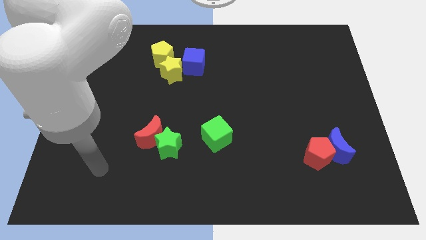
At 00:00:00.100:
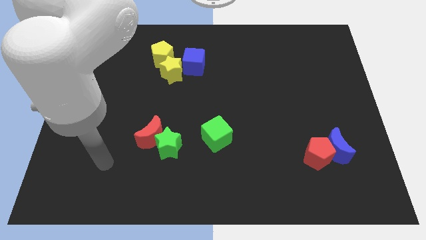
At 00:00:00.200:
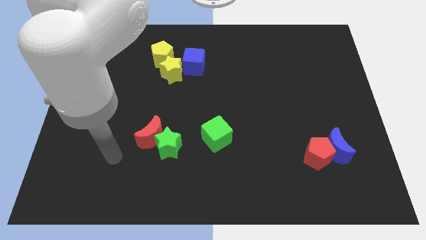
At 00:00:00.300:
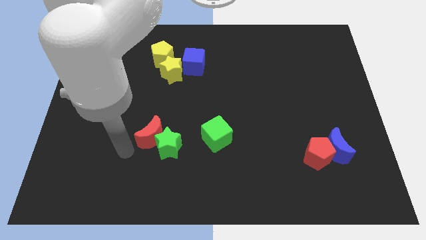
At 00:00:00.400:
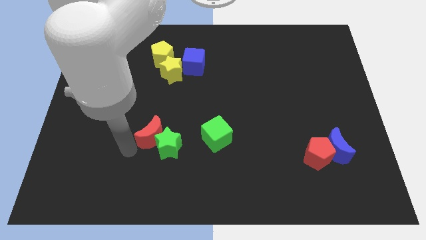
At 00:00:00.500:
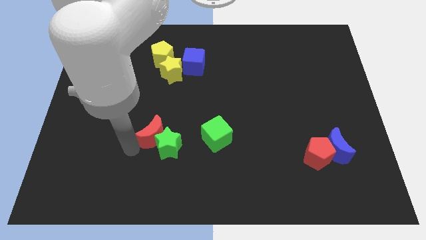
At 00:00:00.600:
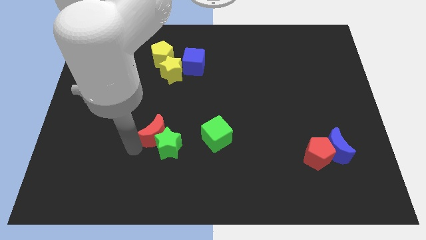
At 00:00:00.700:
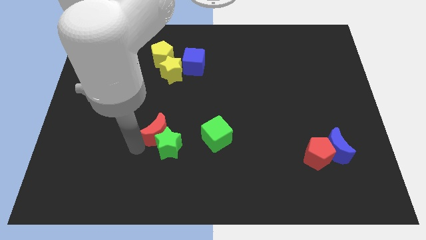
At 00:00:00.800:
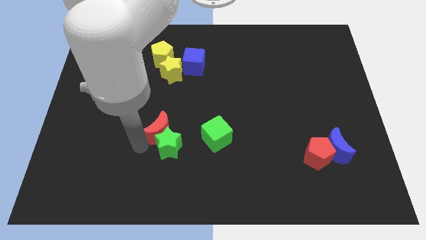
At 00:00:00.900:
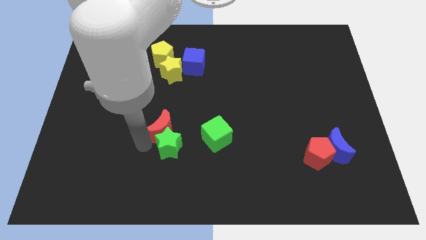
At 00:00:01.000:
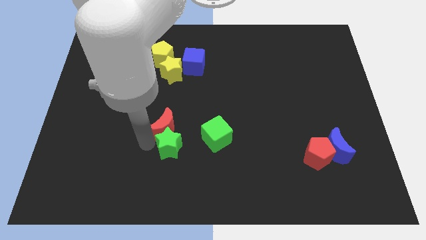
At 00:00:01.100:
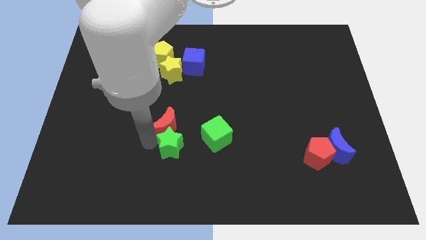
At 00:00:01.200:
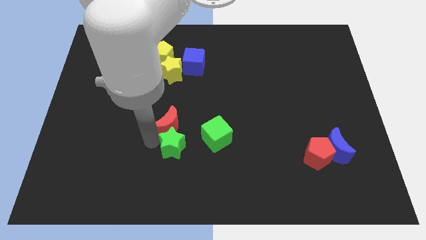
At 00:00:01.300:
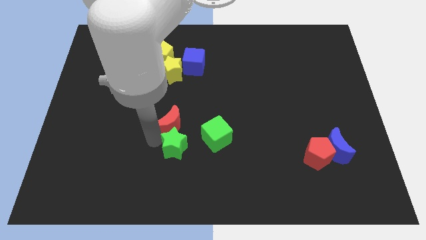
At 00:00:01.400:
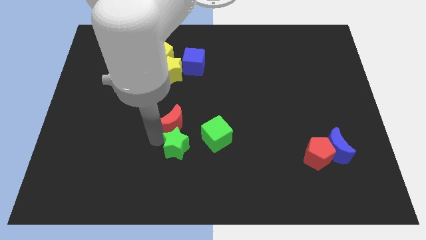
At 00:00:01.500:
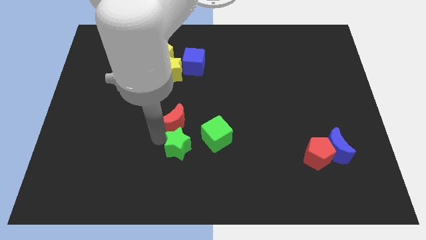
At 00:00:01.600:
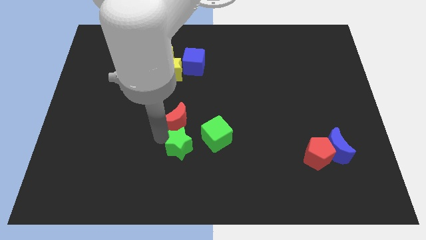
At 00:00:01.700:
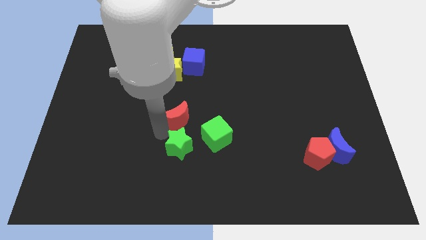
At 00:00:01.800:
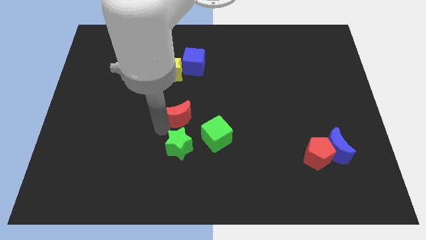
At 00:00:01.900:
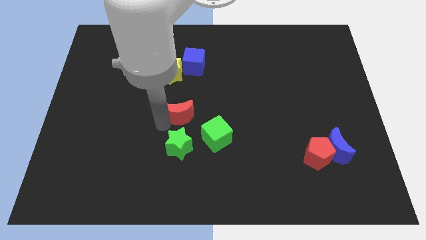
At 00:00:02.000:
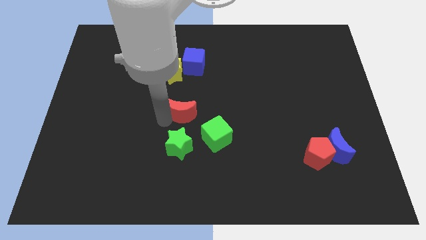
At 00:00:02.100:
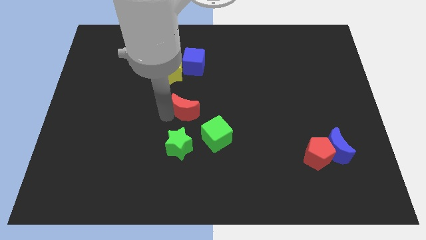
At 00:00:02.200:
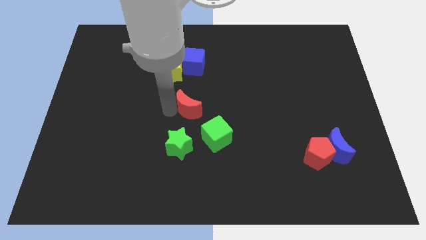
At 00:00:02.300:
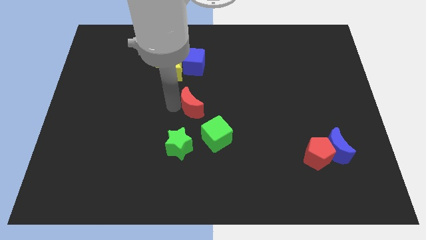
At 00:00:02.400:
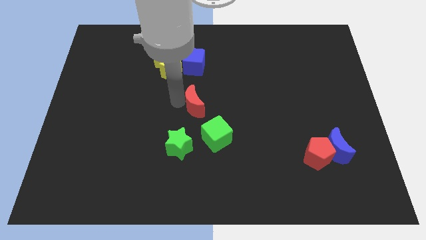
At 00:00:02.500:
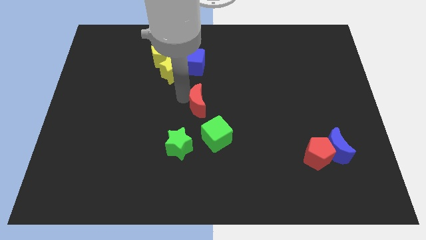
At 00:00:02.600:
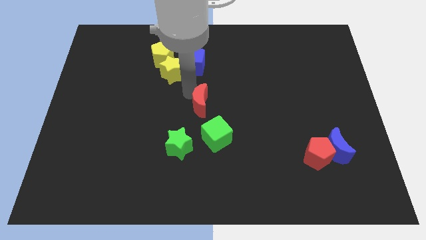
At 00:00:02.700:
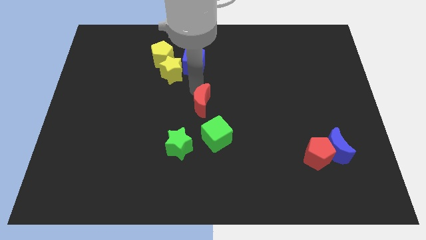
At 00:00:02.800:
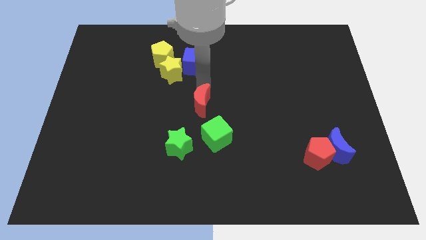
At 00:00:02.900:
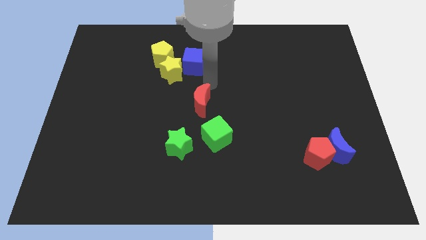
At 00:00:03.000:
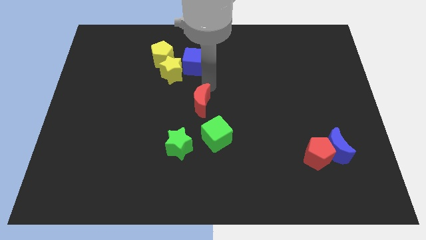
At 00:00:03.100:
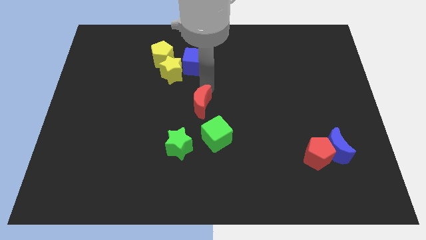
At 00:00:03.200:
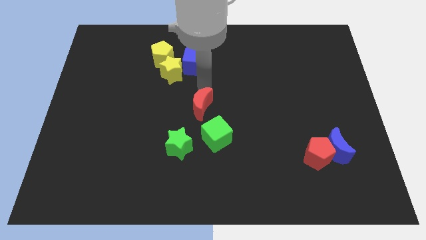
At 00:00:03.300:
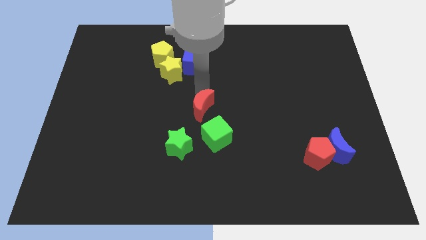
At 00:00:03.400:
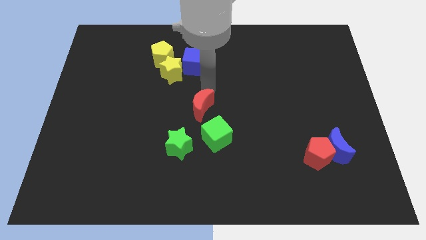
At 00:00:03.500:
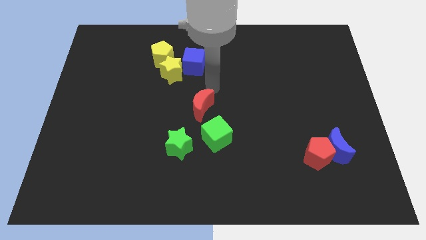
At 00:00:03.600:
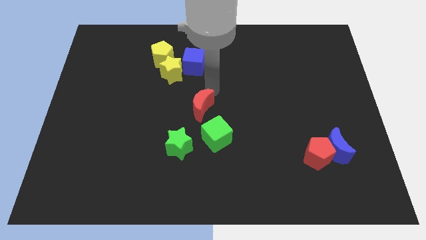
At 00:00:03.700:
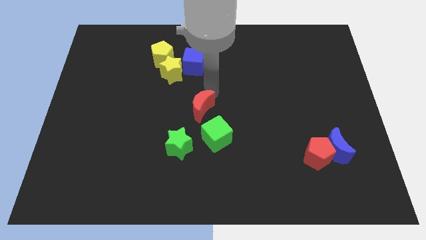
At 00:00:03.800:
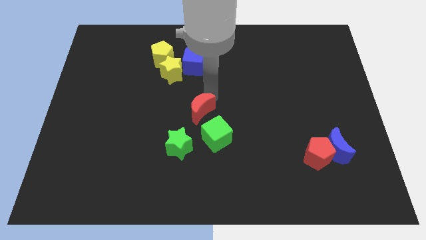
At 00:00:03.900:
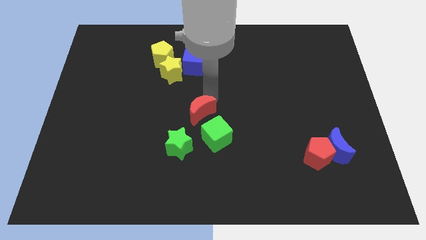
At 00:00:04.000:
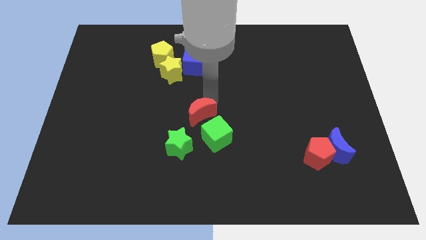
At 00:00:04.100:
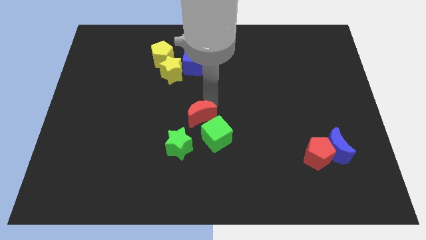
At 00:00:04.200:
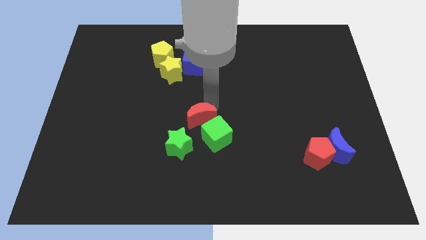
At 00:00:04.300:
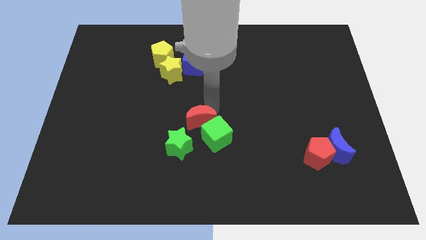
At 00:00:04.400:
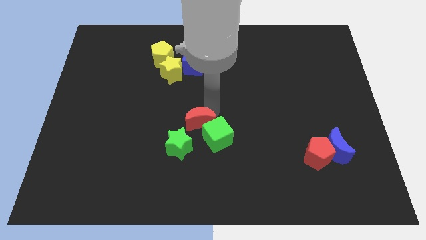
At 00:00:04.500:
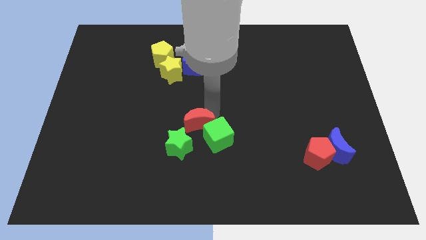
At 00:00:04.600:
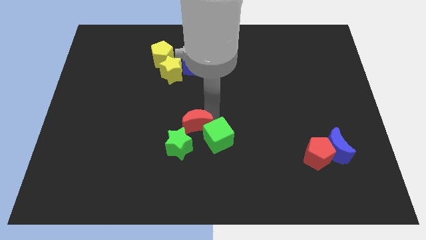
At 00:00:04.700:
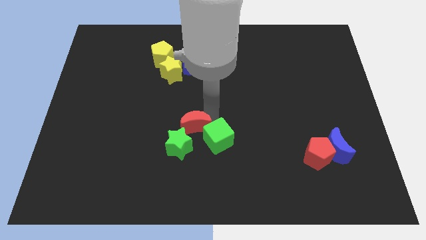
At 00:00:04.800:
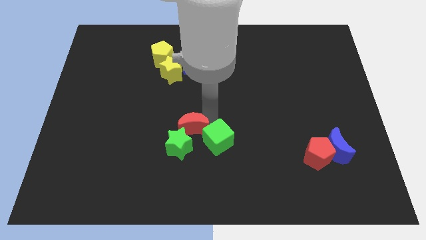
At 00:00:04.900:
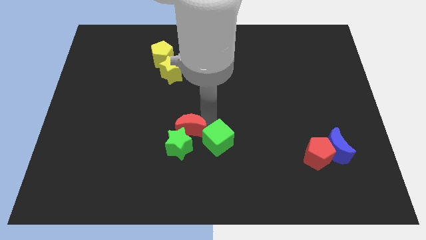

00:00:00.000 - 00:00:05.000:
put the red moon to the right of the green star

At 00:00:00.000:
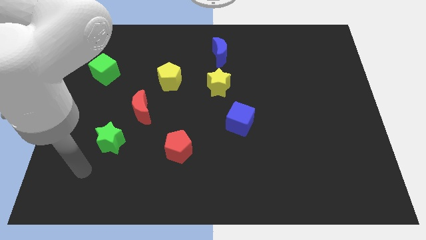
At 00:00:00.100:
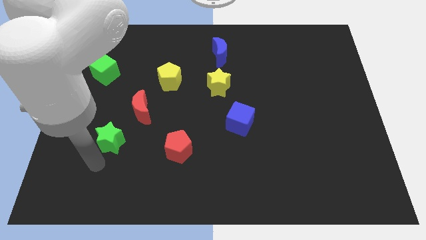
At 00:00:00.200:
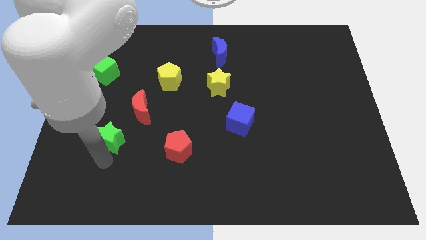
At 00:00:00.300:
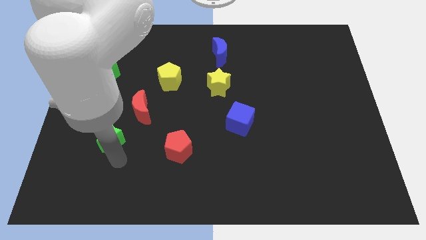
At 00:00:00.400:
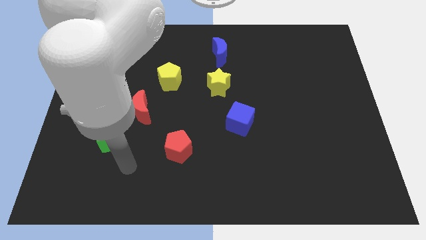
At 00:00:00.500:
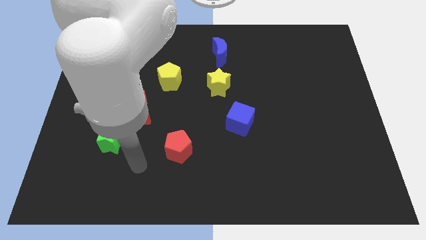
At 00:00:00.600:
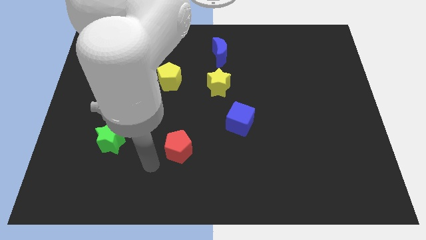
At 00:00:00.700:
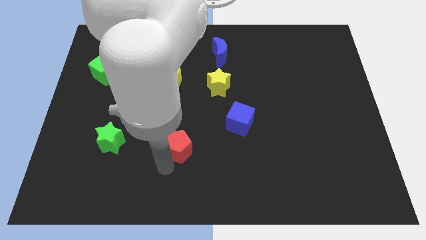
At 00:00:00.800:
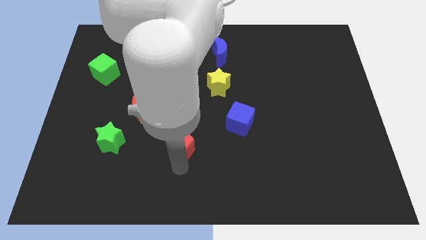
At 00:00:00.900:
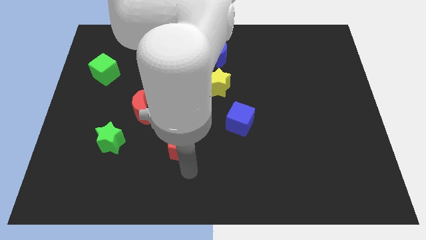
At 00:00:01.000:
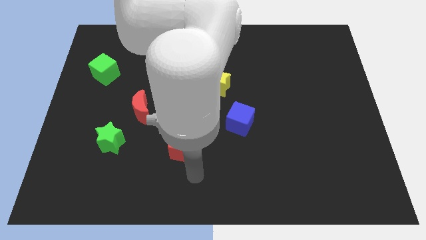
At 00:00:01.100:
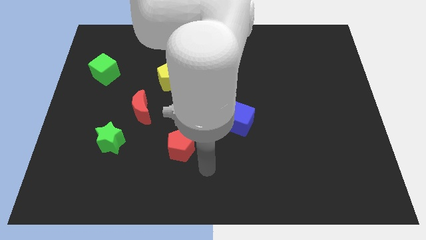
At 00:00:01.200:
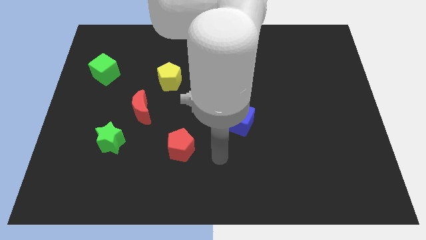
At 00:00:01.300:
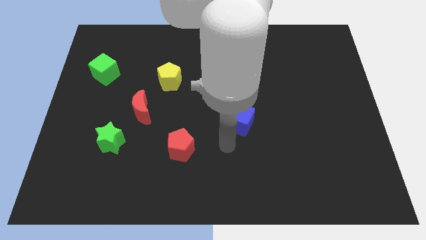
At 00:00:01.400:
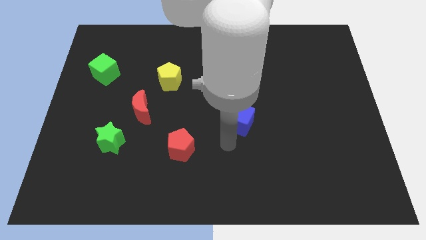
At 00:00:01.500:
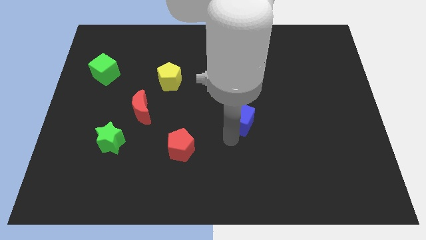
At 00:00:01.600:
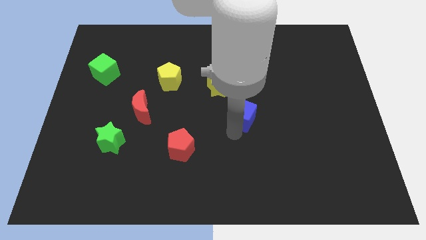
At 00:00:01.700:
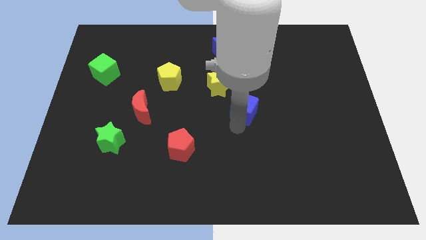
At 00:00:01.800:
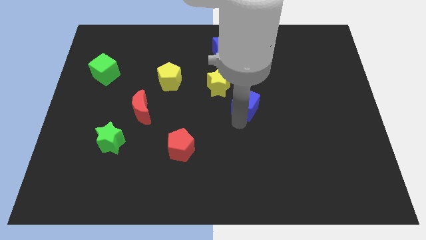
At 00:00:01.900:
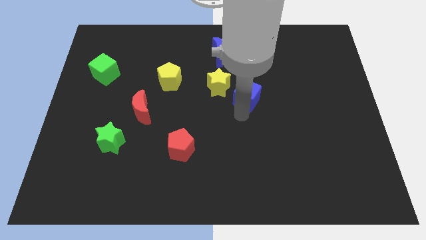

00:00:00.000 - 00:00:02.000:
move the blue cube to the right of the yellow star
